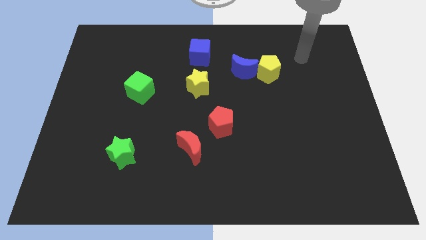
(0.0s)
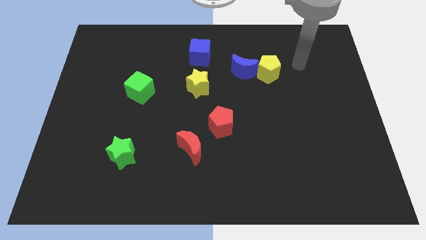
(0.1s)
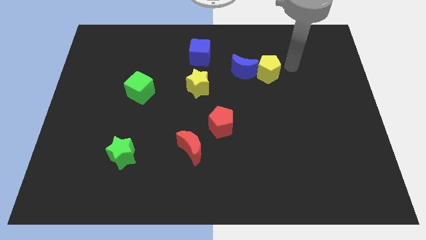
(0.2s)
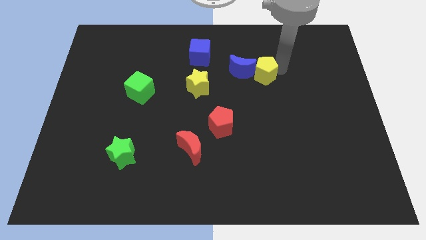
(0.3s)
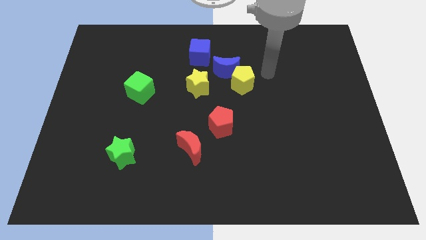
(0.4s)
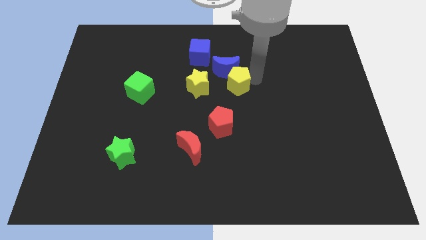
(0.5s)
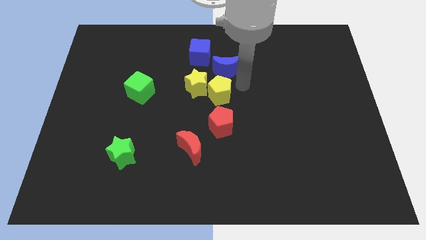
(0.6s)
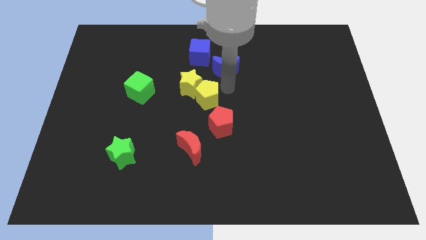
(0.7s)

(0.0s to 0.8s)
move the blue moon away from the yellow pentagon

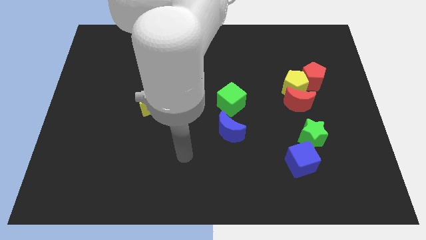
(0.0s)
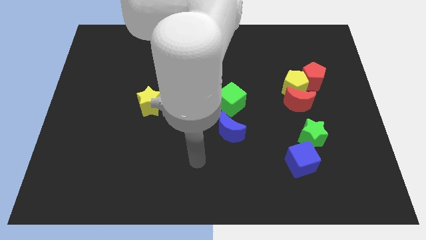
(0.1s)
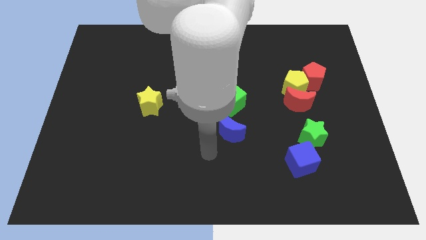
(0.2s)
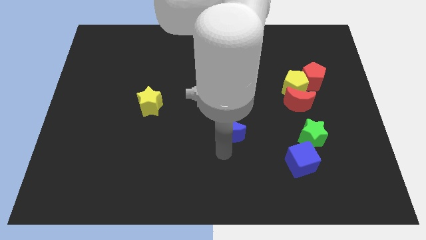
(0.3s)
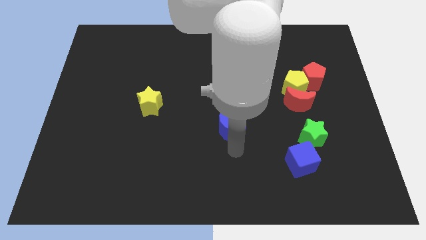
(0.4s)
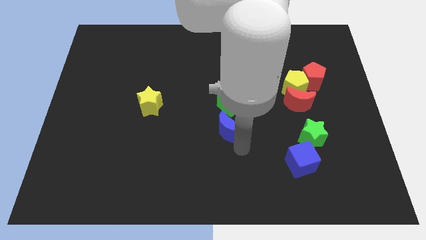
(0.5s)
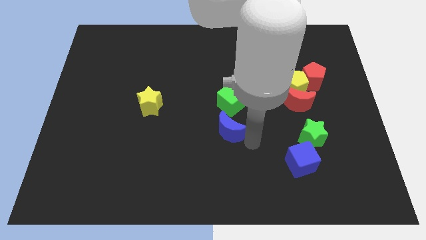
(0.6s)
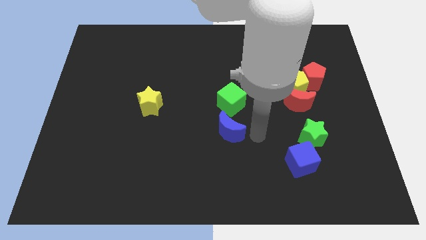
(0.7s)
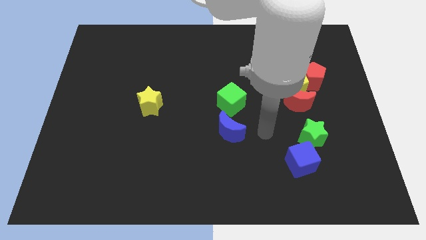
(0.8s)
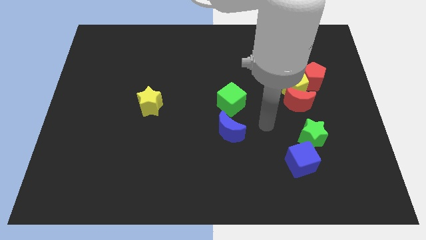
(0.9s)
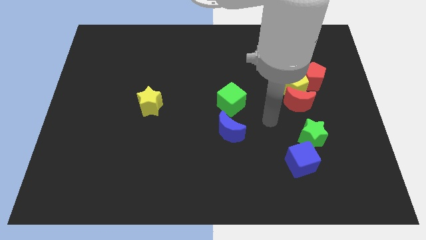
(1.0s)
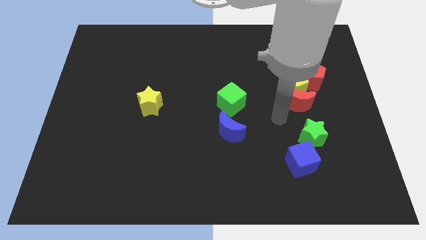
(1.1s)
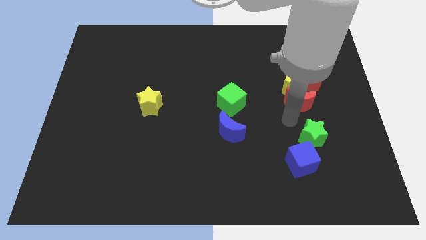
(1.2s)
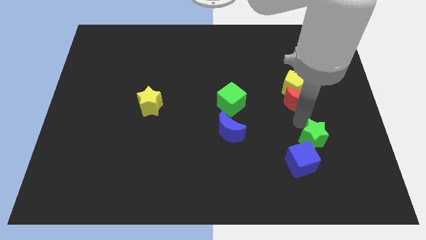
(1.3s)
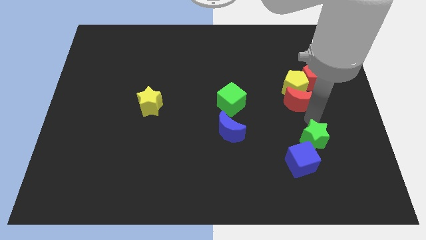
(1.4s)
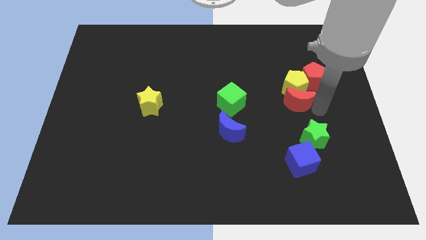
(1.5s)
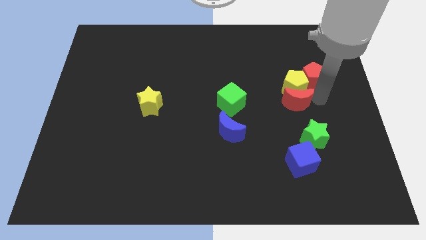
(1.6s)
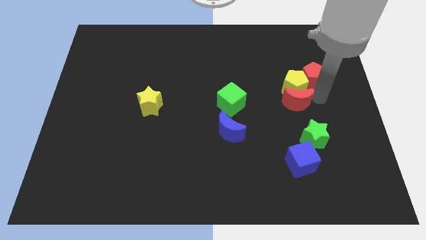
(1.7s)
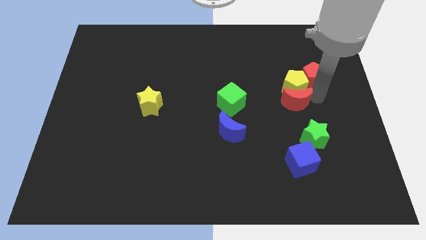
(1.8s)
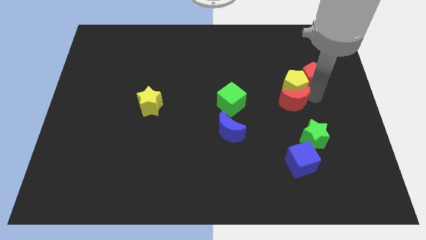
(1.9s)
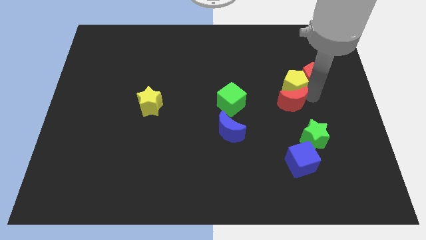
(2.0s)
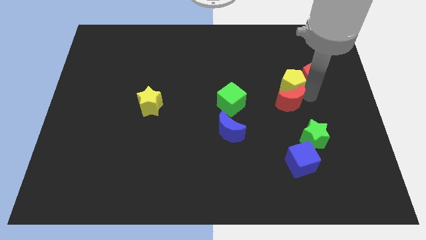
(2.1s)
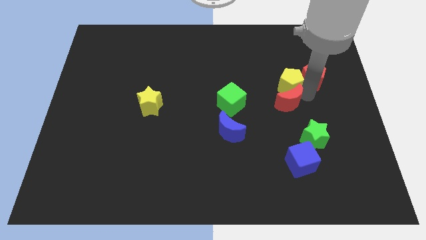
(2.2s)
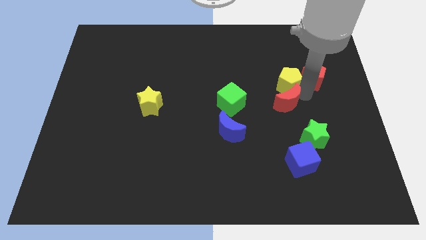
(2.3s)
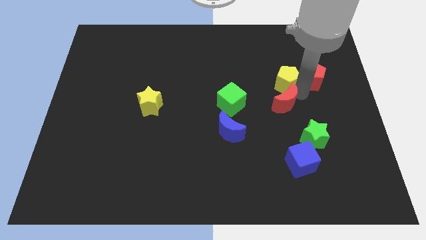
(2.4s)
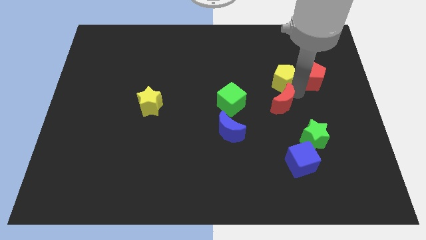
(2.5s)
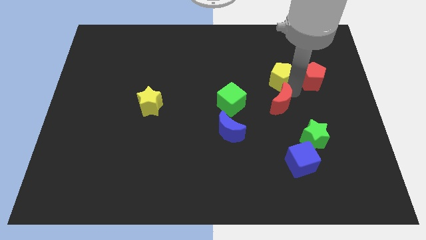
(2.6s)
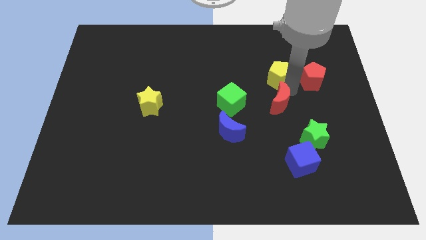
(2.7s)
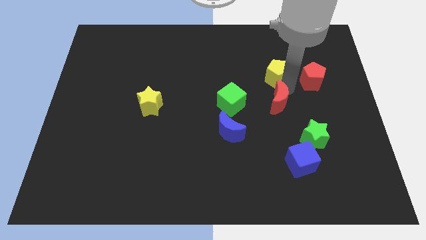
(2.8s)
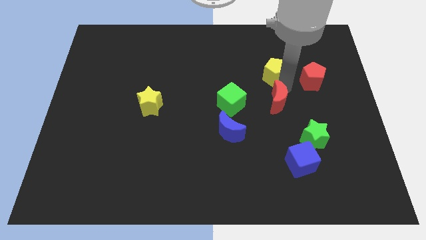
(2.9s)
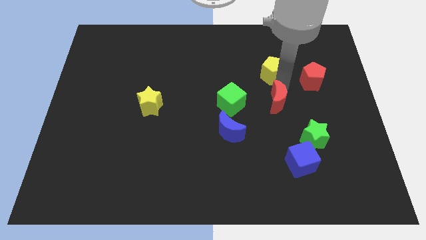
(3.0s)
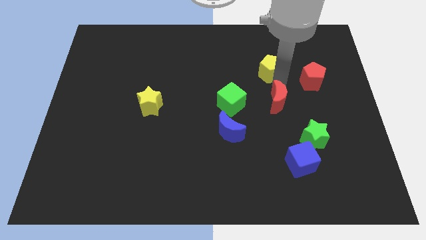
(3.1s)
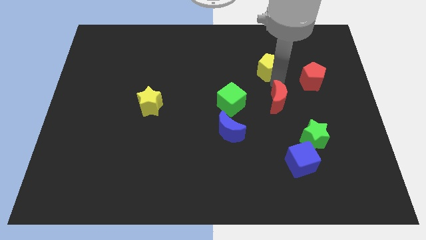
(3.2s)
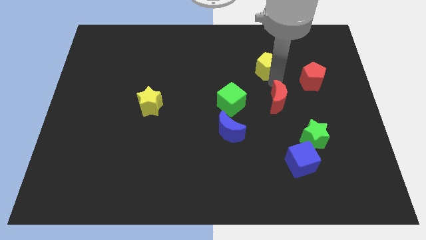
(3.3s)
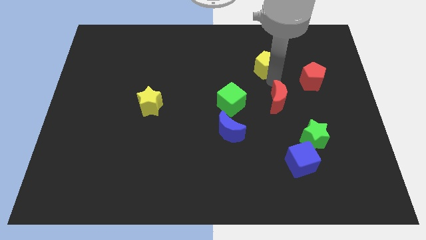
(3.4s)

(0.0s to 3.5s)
move the yellow pentagon away from the red moon and red pentagon

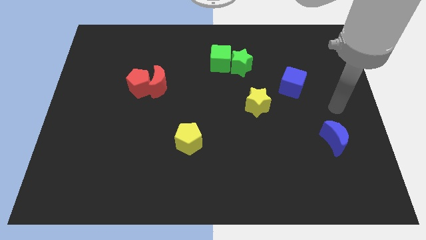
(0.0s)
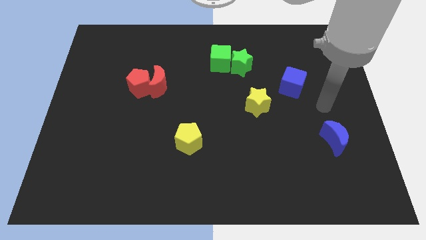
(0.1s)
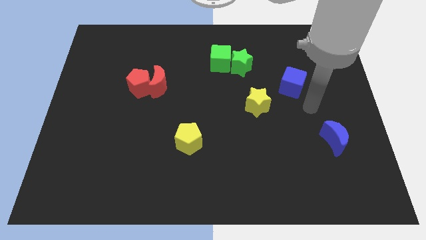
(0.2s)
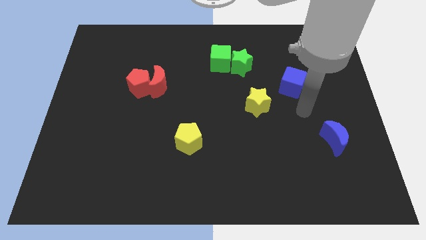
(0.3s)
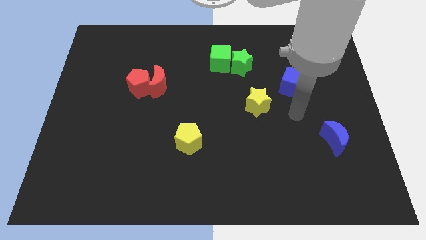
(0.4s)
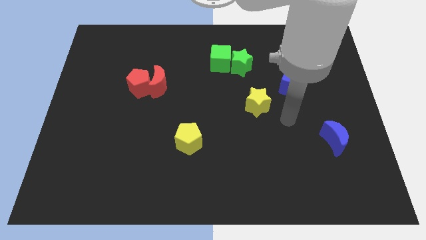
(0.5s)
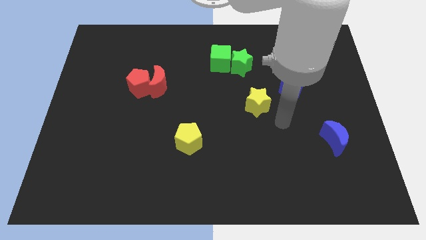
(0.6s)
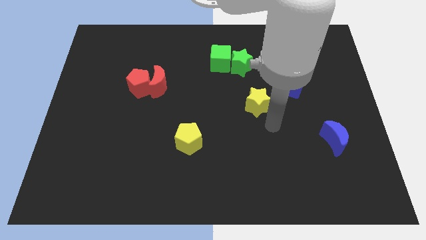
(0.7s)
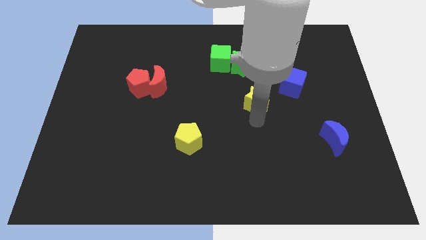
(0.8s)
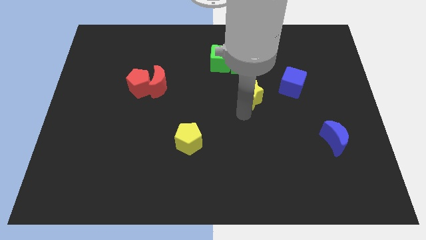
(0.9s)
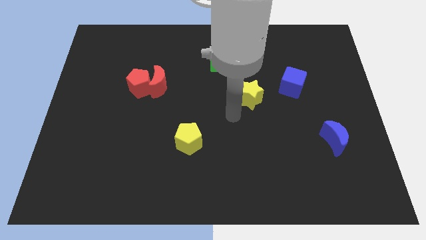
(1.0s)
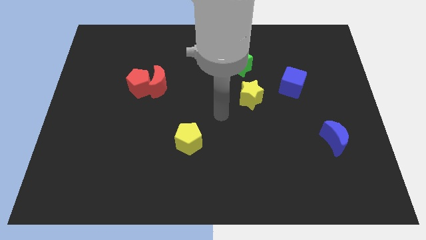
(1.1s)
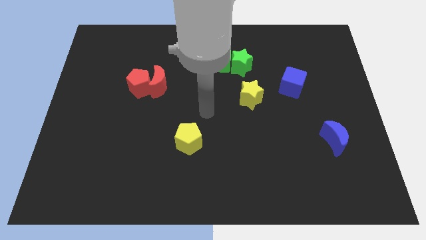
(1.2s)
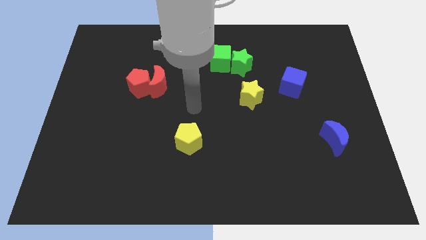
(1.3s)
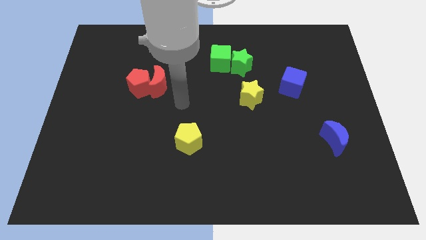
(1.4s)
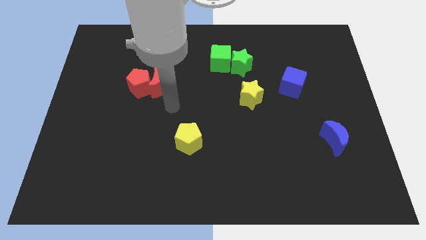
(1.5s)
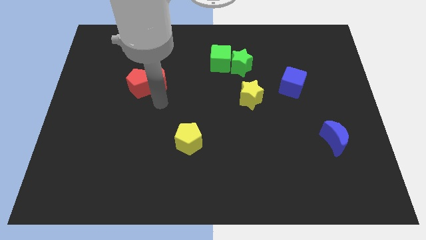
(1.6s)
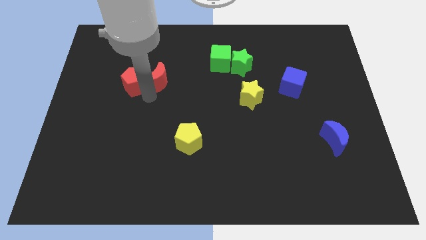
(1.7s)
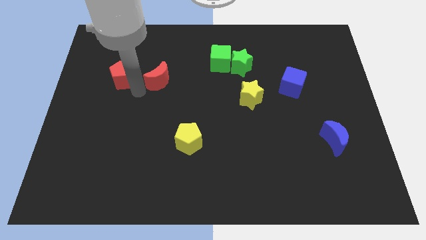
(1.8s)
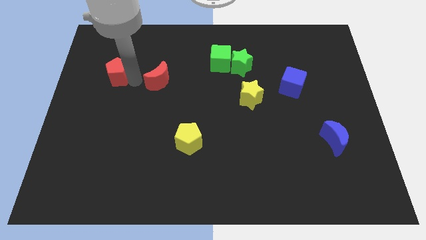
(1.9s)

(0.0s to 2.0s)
separate the red moon from the red pentagon

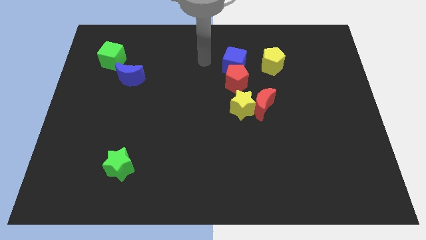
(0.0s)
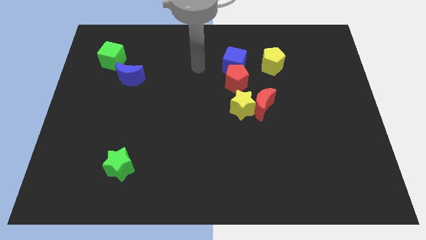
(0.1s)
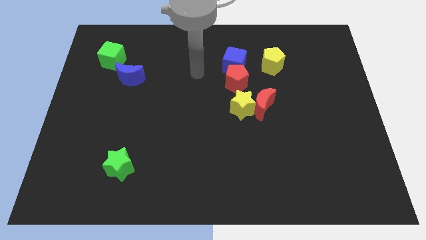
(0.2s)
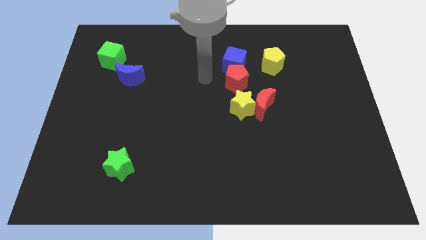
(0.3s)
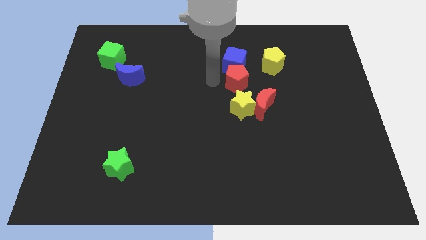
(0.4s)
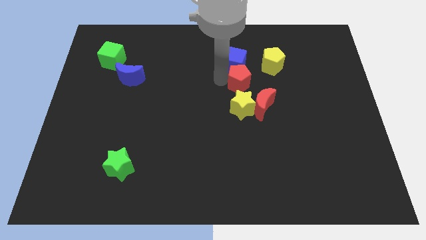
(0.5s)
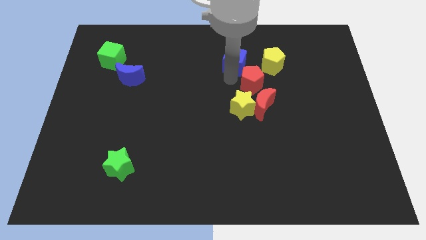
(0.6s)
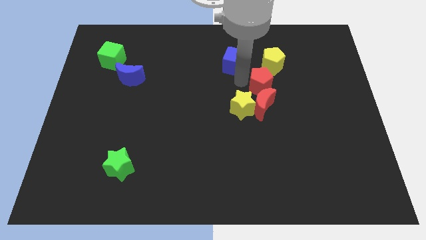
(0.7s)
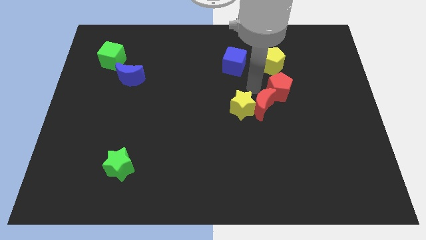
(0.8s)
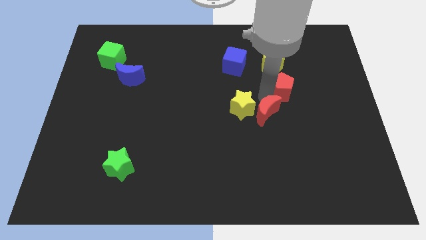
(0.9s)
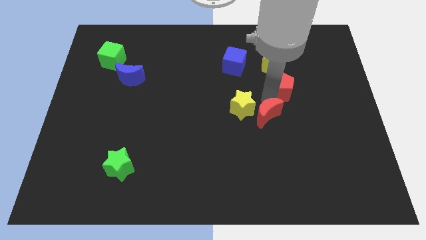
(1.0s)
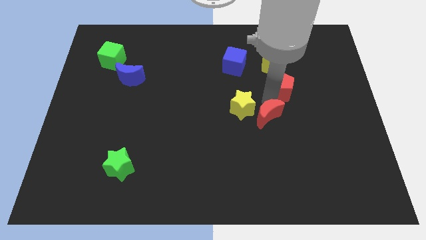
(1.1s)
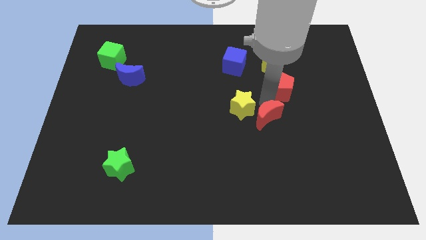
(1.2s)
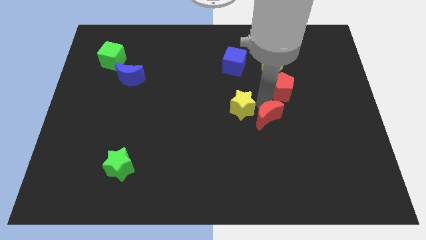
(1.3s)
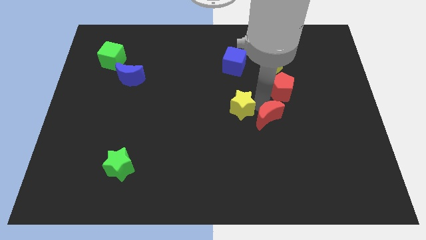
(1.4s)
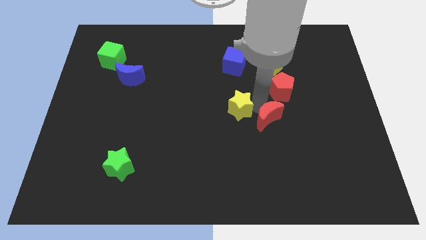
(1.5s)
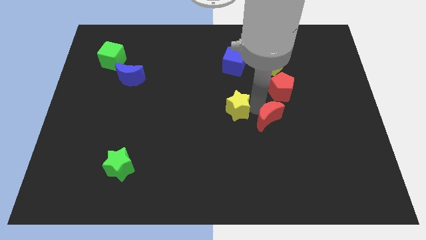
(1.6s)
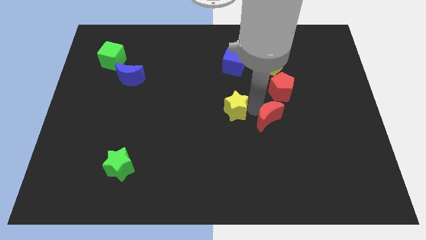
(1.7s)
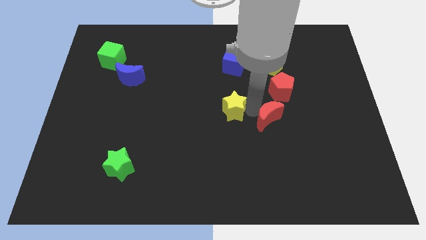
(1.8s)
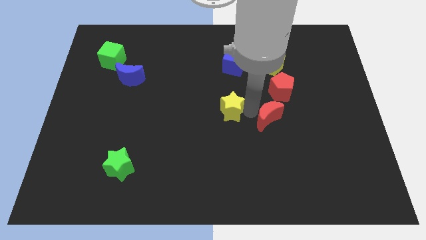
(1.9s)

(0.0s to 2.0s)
move the yellow star away from the red moon and red pentagon

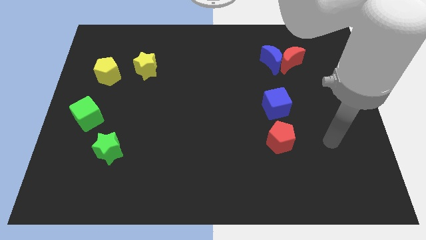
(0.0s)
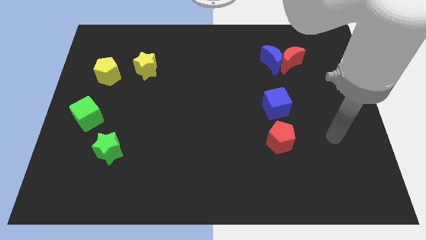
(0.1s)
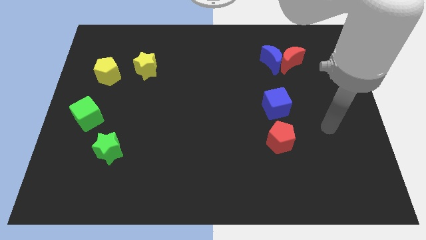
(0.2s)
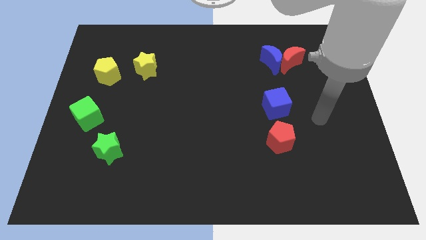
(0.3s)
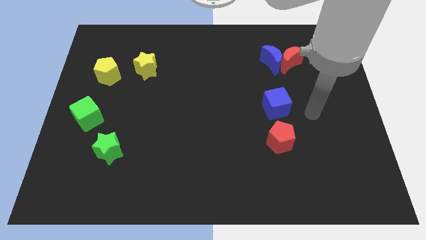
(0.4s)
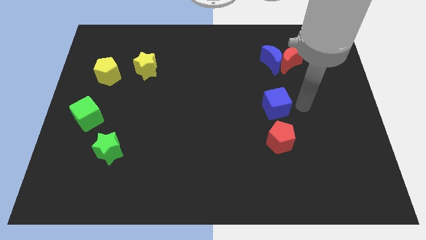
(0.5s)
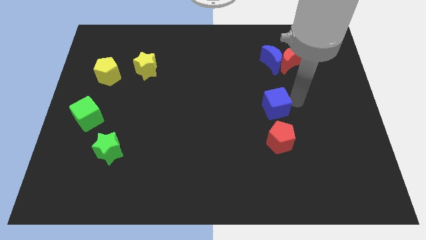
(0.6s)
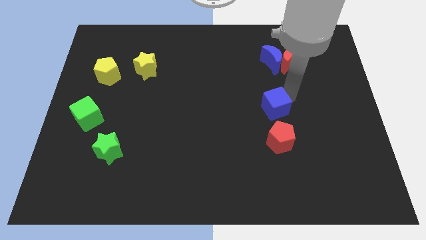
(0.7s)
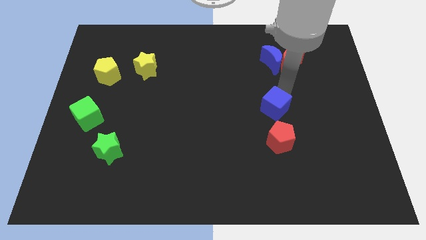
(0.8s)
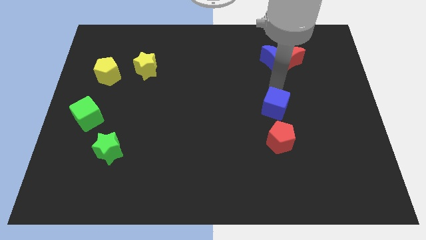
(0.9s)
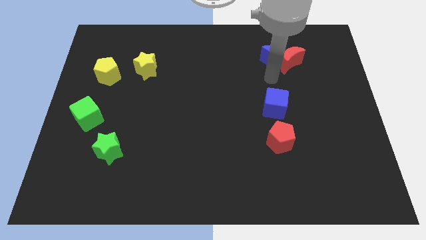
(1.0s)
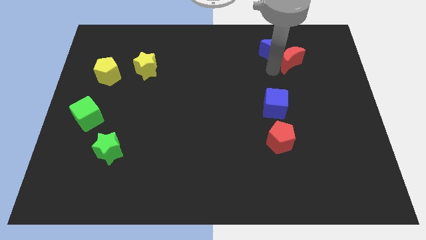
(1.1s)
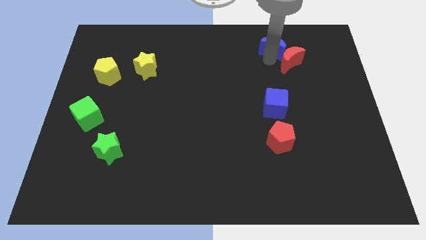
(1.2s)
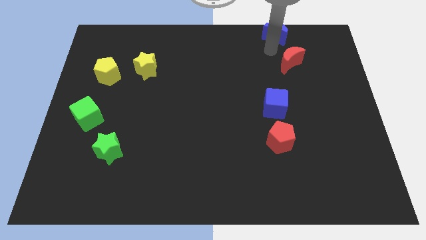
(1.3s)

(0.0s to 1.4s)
pull the red moon apart from the blue moon
